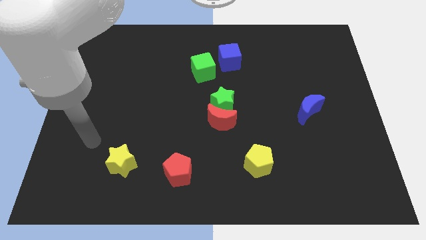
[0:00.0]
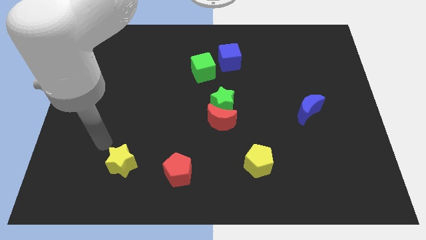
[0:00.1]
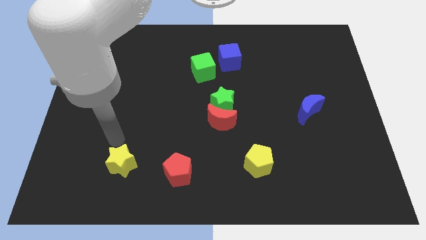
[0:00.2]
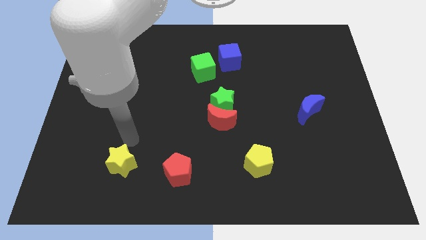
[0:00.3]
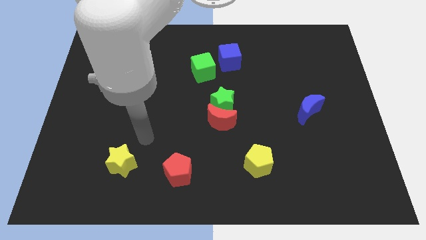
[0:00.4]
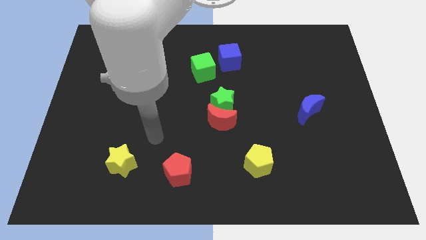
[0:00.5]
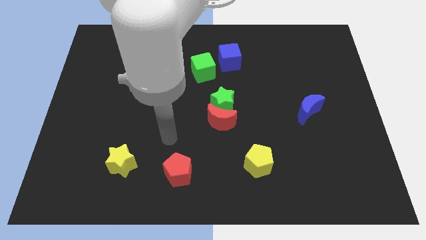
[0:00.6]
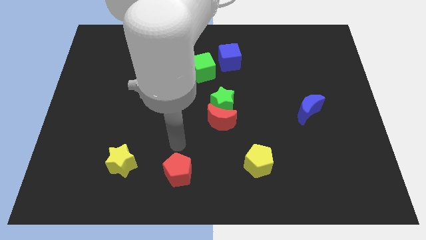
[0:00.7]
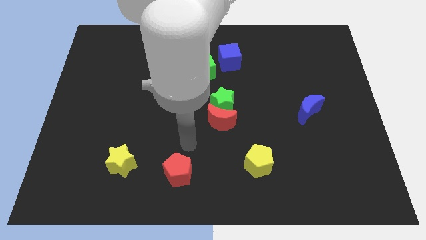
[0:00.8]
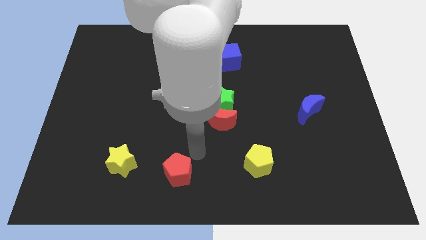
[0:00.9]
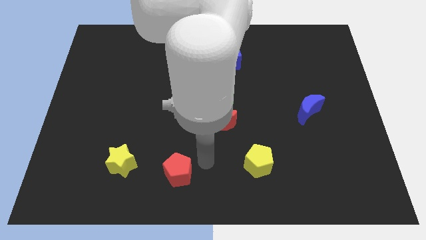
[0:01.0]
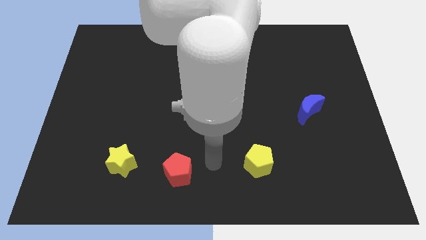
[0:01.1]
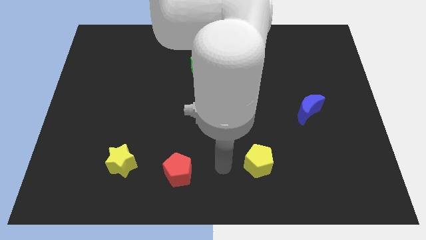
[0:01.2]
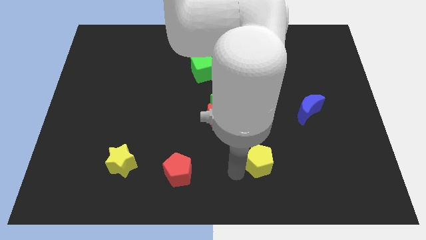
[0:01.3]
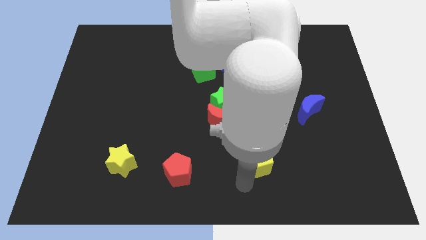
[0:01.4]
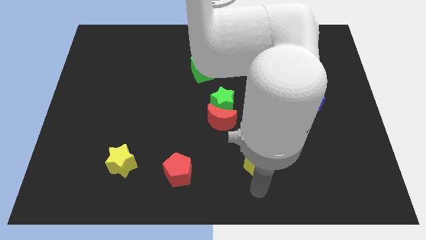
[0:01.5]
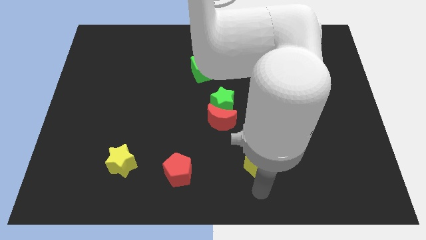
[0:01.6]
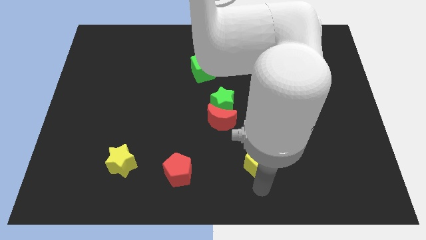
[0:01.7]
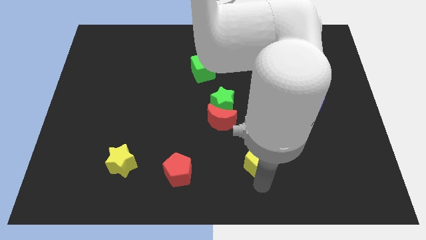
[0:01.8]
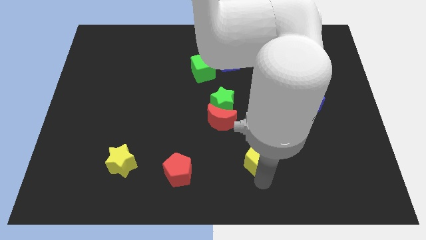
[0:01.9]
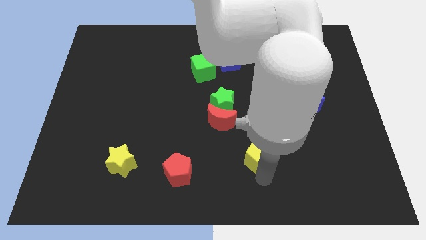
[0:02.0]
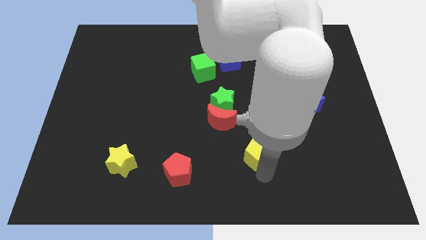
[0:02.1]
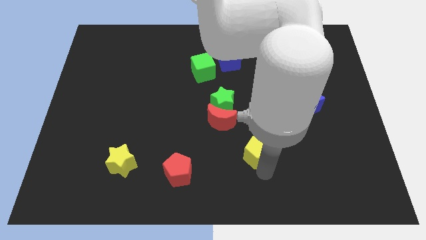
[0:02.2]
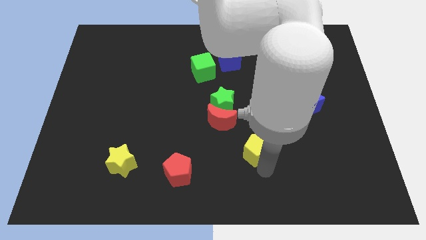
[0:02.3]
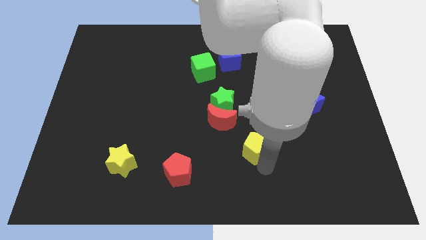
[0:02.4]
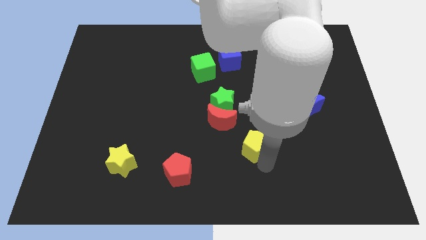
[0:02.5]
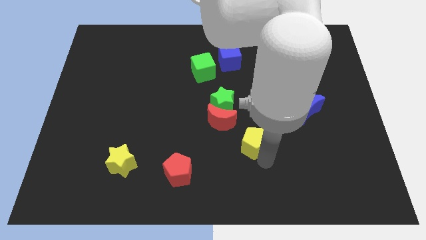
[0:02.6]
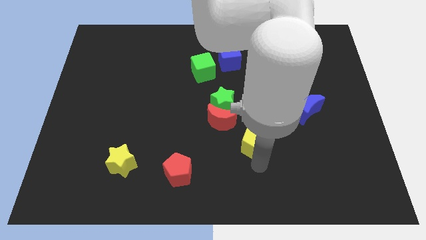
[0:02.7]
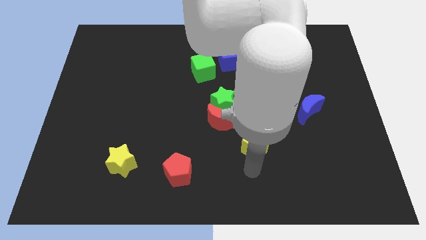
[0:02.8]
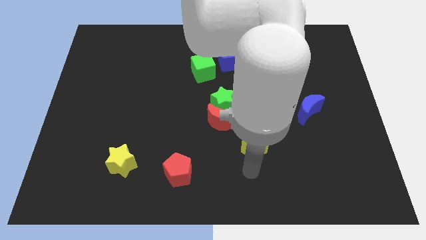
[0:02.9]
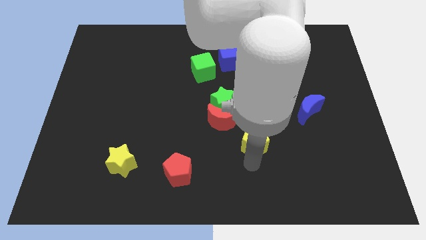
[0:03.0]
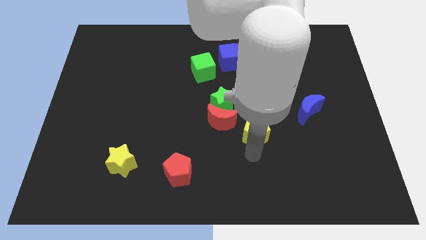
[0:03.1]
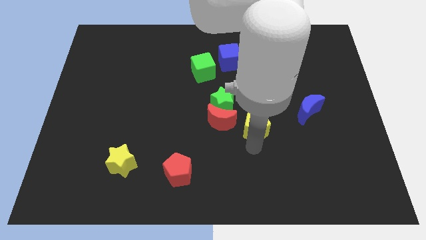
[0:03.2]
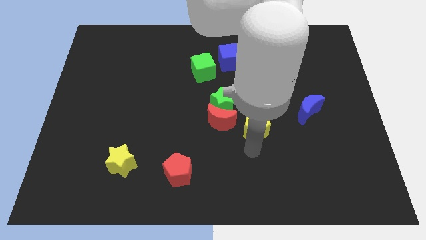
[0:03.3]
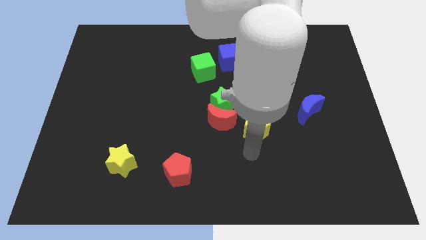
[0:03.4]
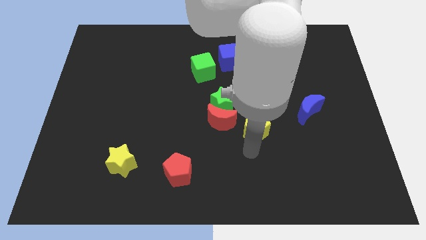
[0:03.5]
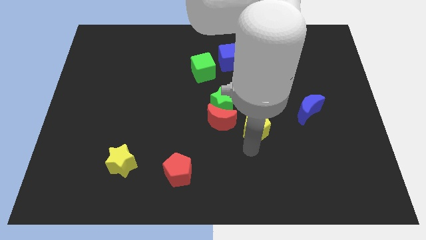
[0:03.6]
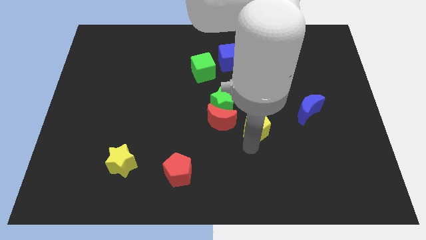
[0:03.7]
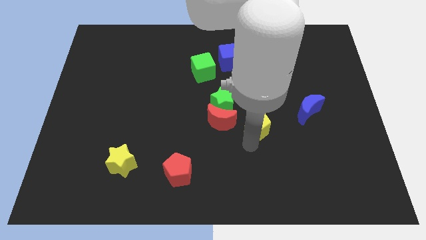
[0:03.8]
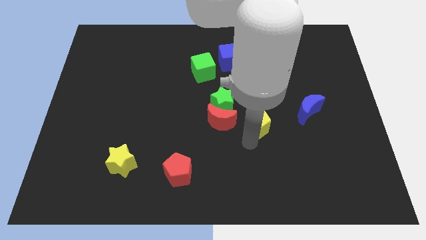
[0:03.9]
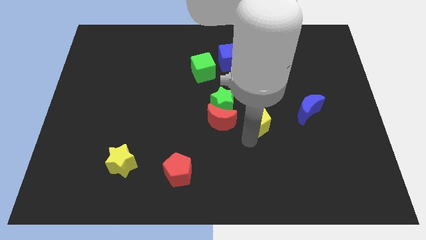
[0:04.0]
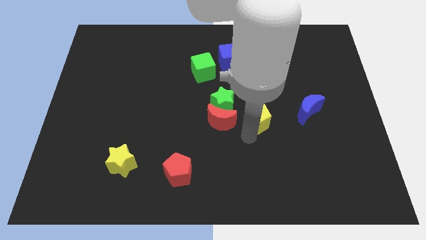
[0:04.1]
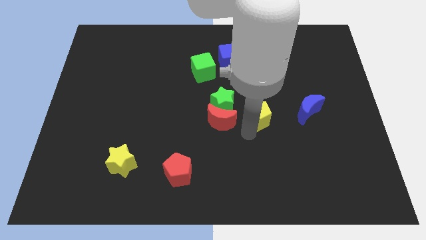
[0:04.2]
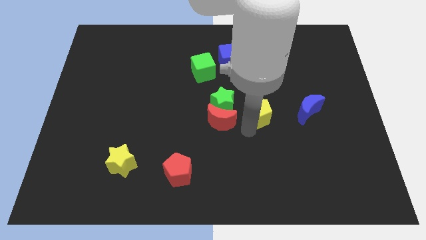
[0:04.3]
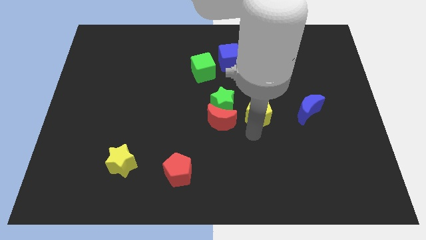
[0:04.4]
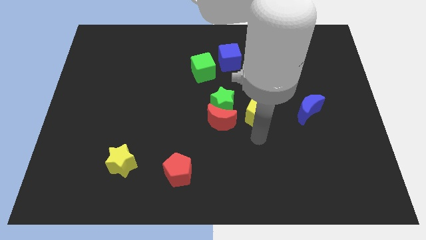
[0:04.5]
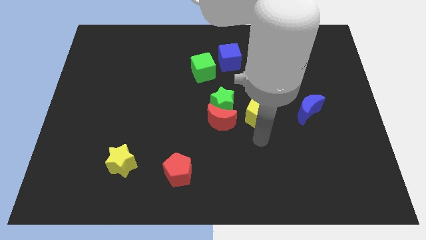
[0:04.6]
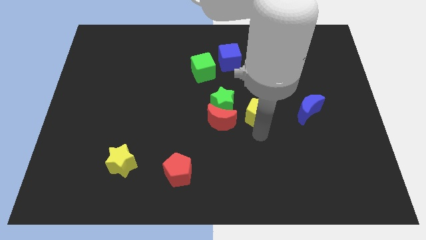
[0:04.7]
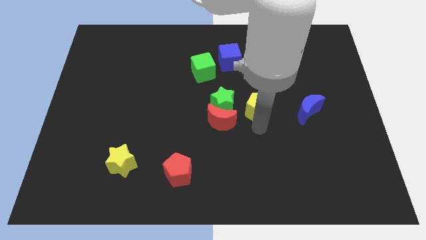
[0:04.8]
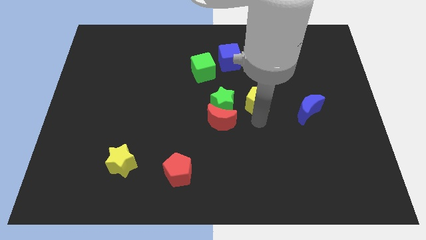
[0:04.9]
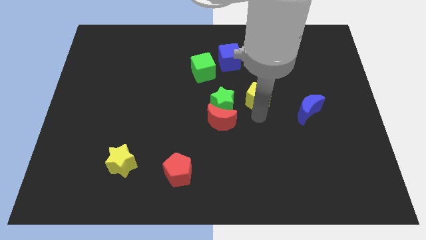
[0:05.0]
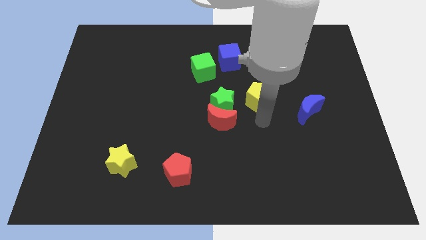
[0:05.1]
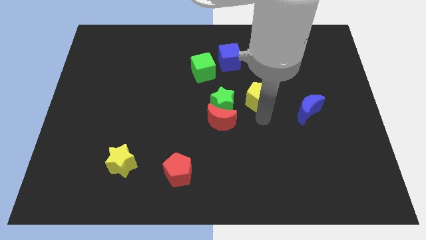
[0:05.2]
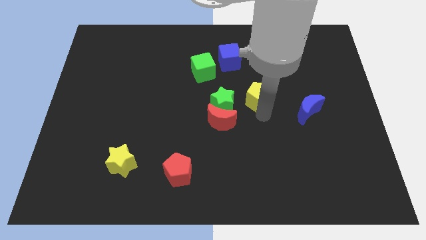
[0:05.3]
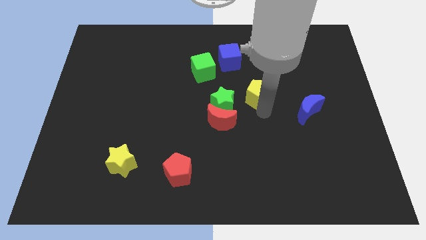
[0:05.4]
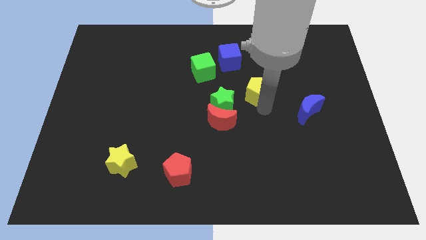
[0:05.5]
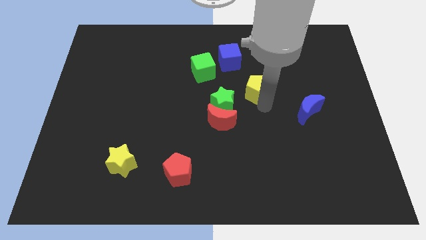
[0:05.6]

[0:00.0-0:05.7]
slide the yellow pentagon upwards

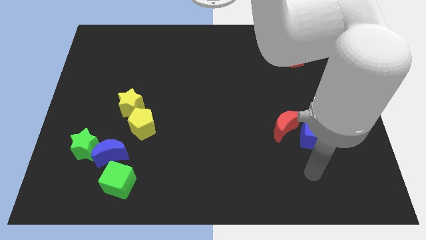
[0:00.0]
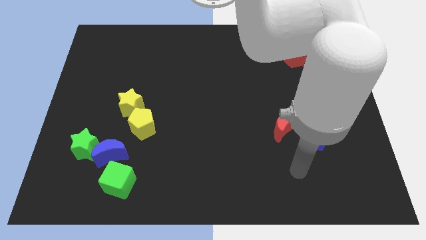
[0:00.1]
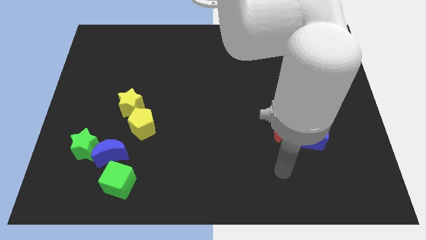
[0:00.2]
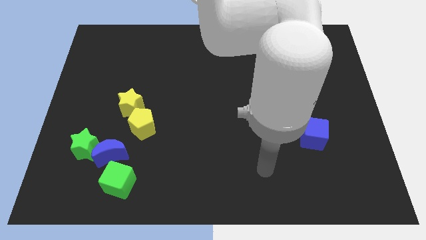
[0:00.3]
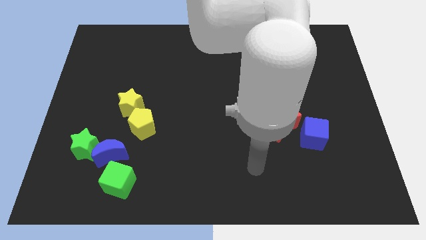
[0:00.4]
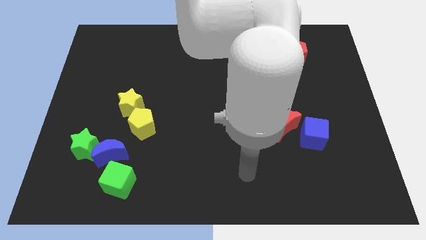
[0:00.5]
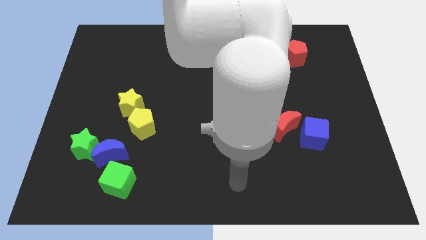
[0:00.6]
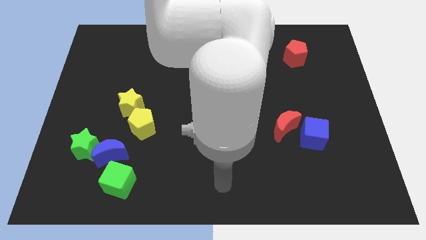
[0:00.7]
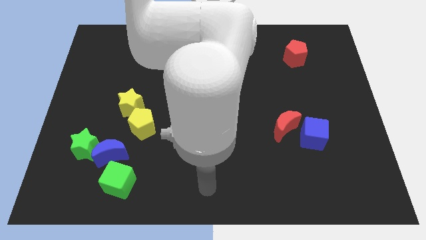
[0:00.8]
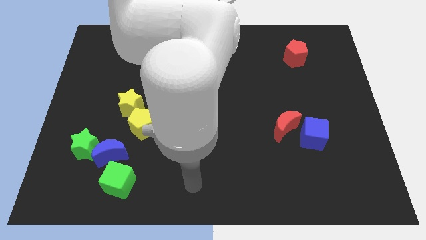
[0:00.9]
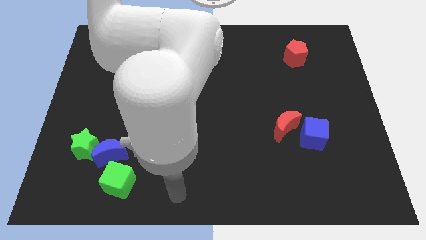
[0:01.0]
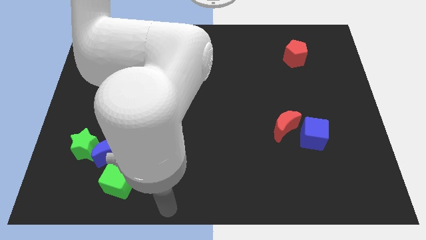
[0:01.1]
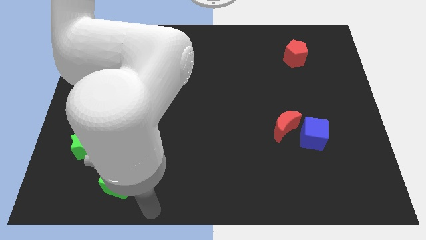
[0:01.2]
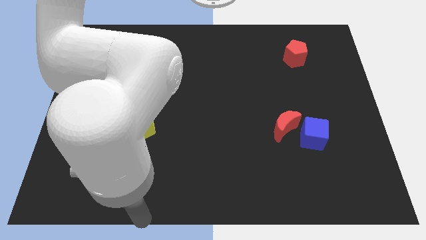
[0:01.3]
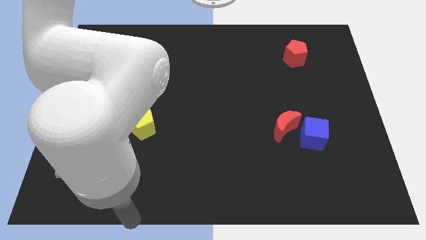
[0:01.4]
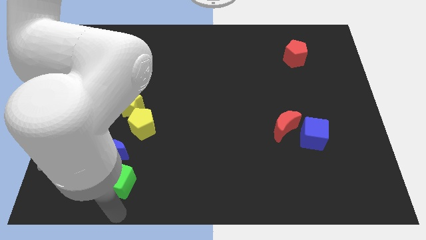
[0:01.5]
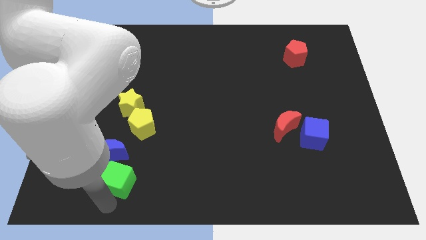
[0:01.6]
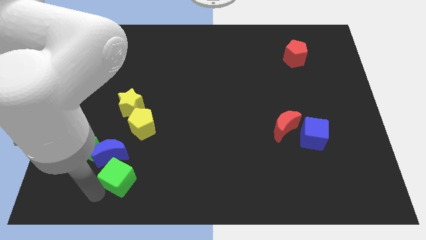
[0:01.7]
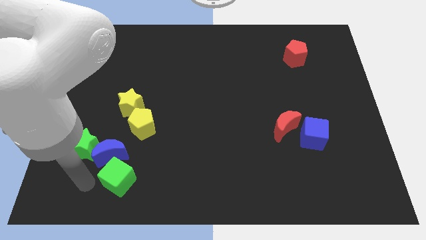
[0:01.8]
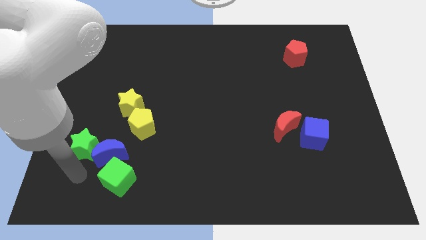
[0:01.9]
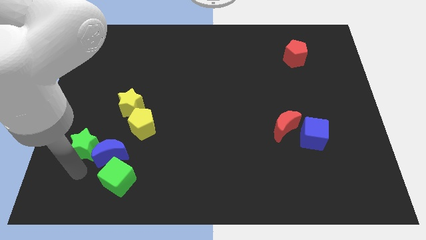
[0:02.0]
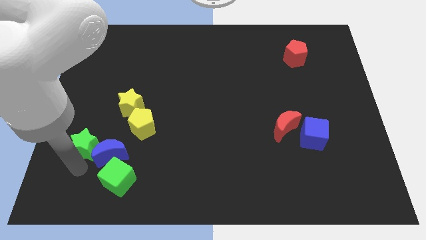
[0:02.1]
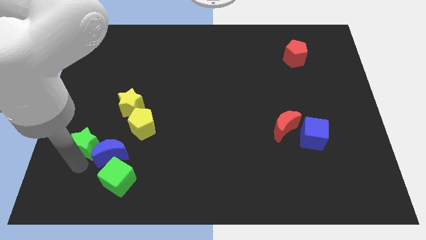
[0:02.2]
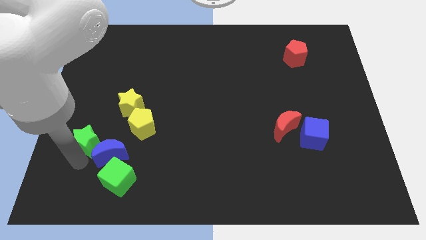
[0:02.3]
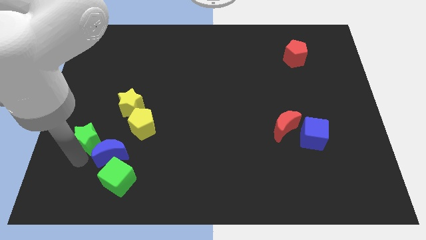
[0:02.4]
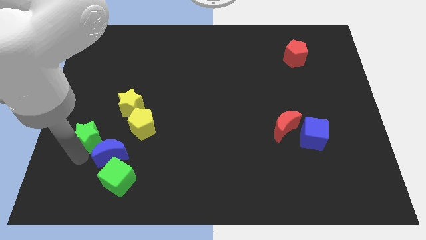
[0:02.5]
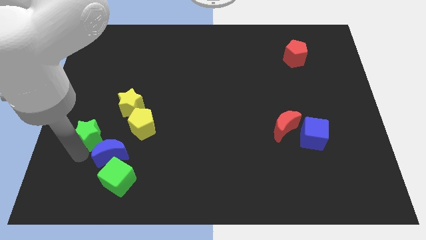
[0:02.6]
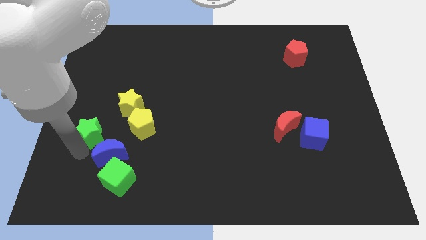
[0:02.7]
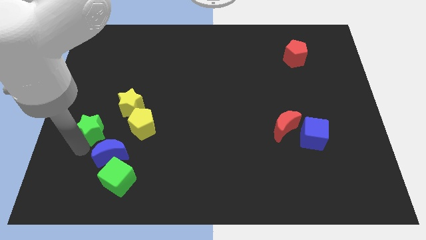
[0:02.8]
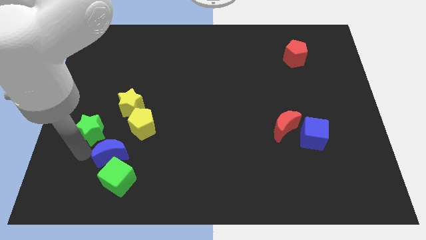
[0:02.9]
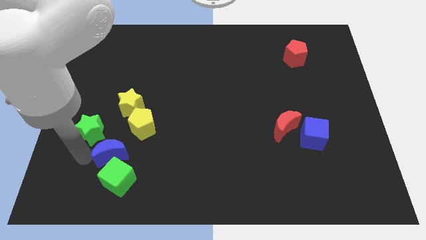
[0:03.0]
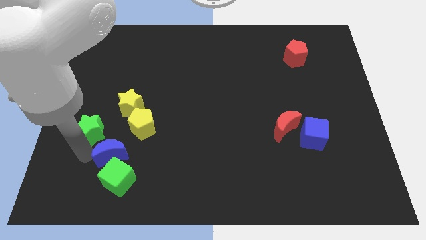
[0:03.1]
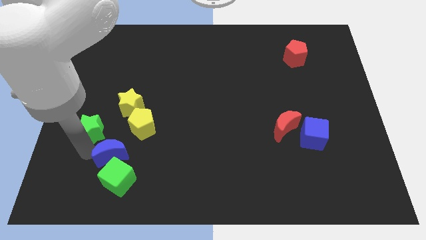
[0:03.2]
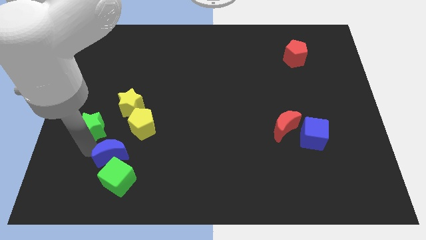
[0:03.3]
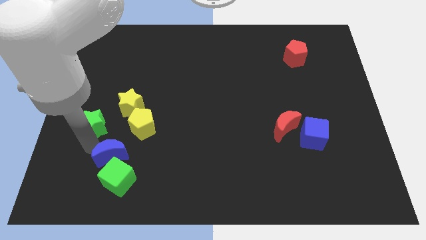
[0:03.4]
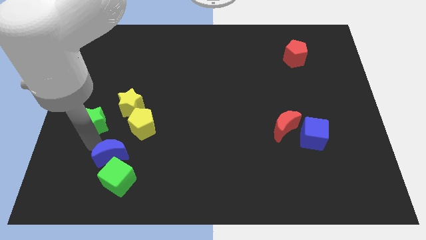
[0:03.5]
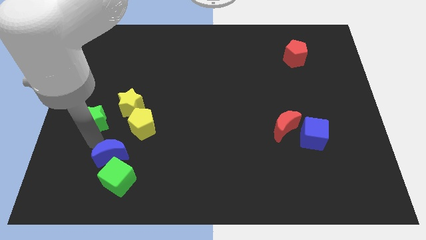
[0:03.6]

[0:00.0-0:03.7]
slide the green star a little bit up
